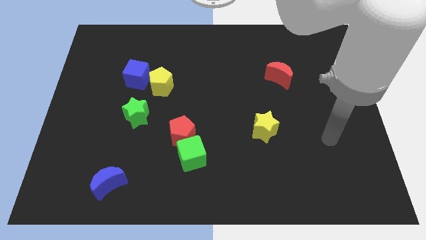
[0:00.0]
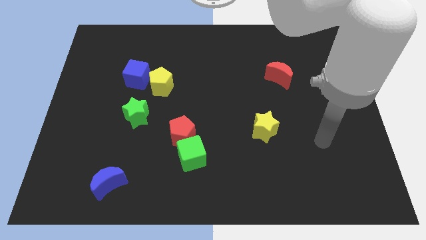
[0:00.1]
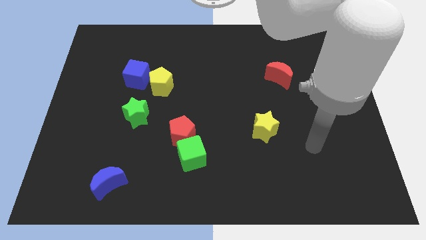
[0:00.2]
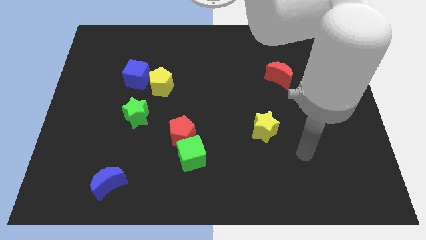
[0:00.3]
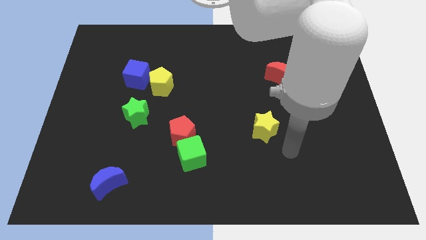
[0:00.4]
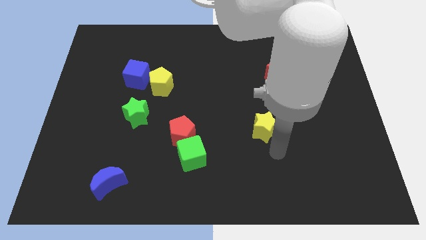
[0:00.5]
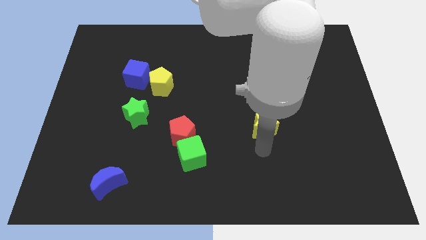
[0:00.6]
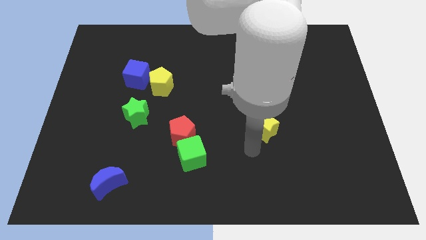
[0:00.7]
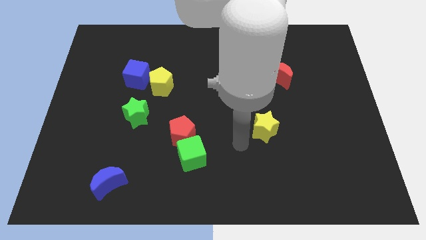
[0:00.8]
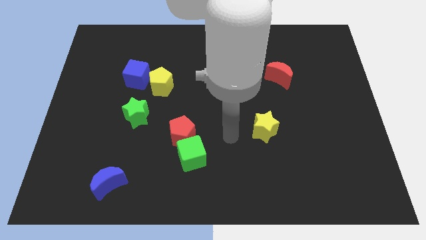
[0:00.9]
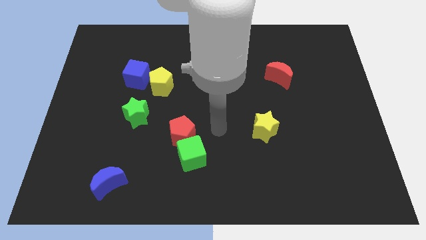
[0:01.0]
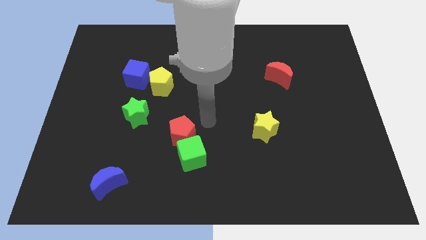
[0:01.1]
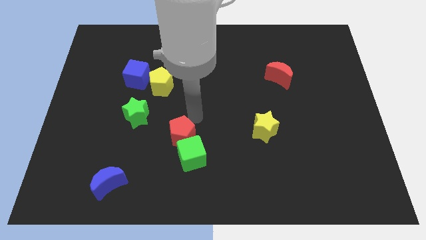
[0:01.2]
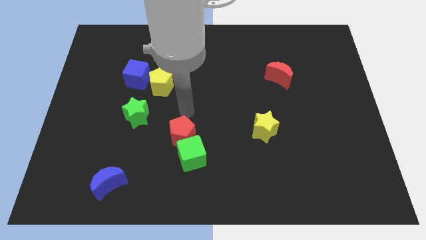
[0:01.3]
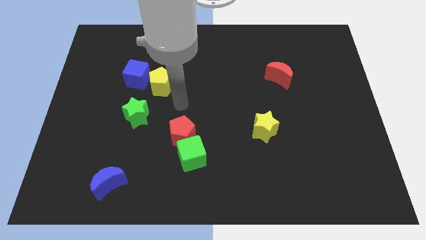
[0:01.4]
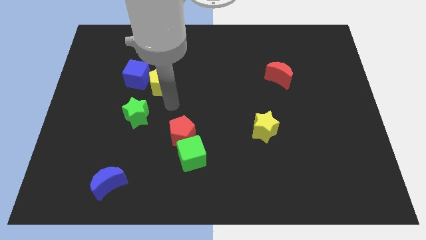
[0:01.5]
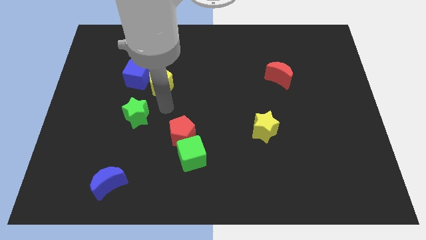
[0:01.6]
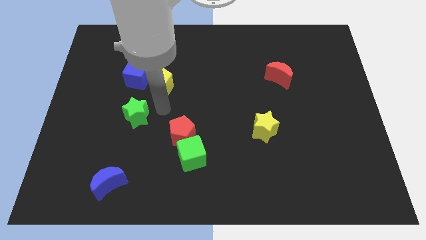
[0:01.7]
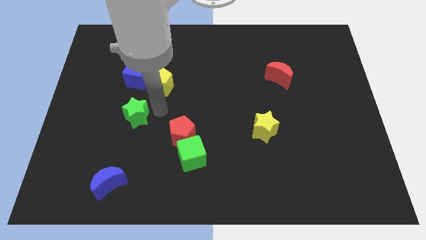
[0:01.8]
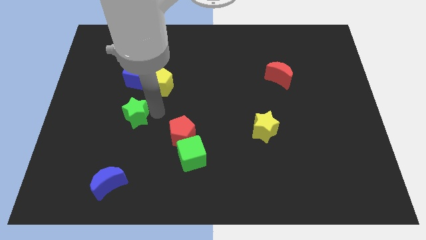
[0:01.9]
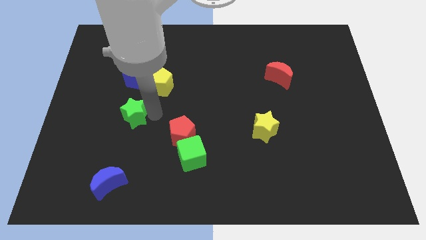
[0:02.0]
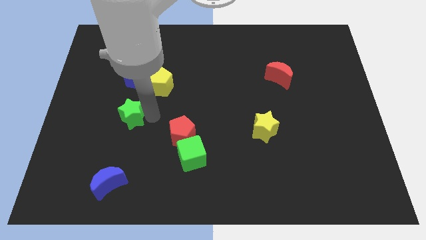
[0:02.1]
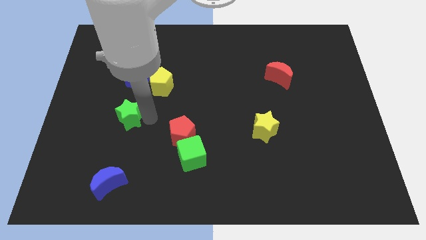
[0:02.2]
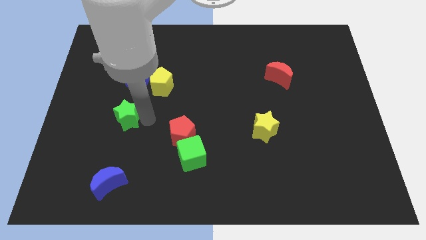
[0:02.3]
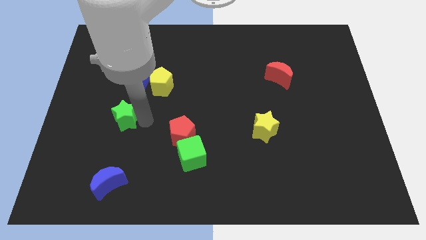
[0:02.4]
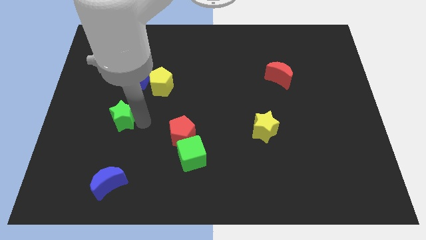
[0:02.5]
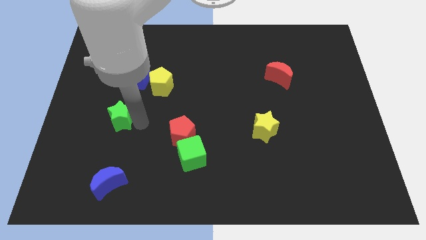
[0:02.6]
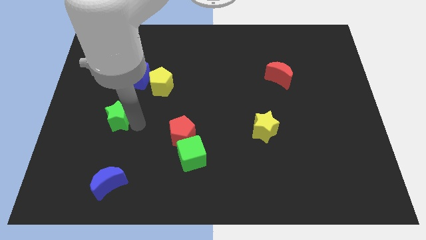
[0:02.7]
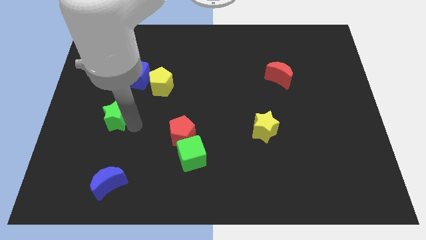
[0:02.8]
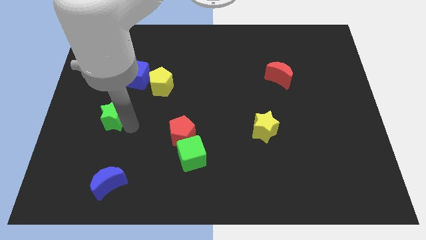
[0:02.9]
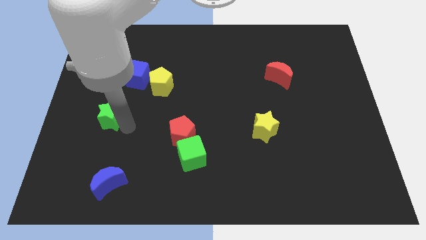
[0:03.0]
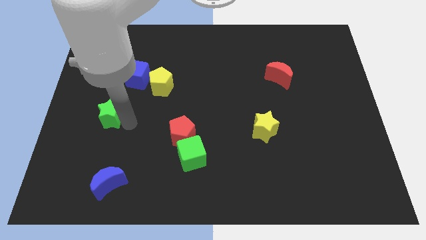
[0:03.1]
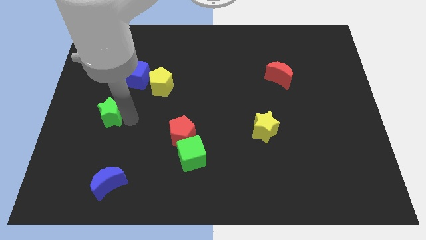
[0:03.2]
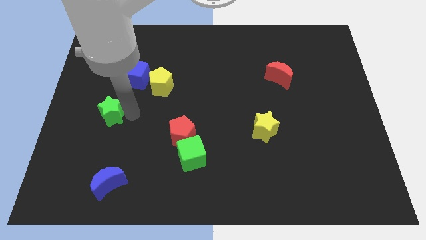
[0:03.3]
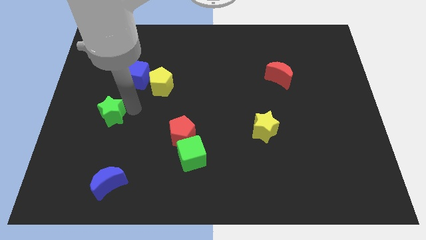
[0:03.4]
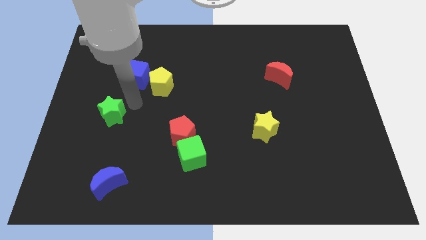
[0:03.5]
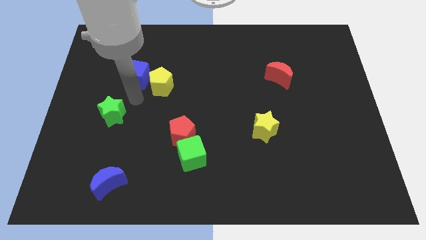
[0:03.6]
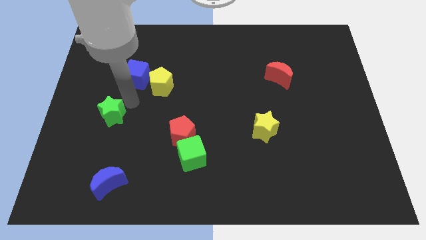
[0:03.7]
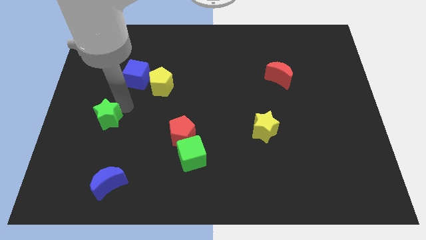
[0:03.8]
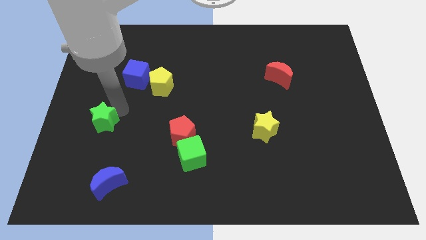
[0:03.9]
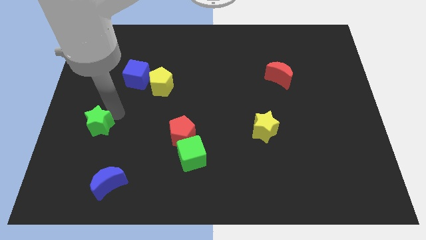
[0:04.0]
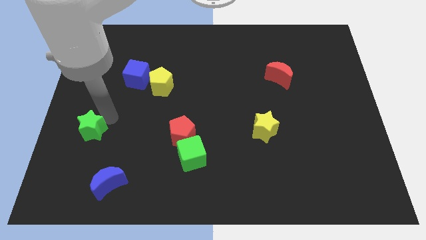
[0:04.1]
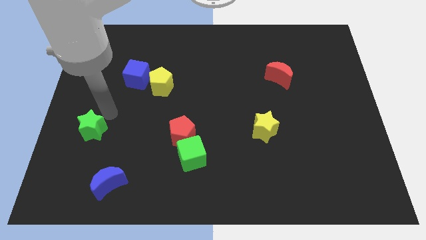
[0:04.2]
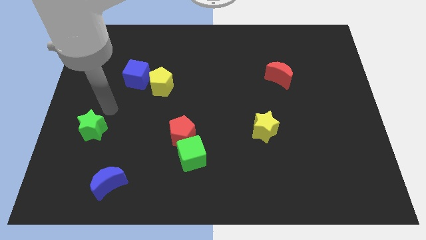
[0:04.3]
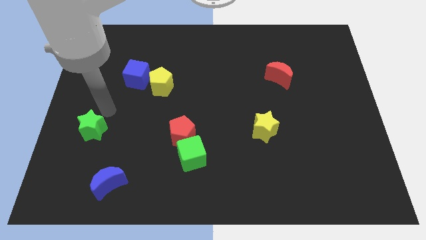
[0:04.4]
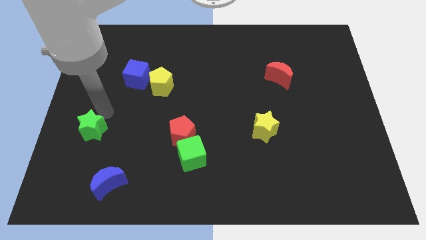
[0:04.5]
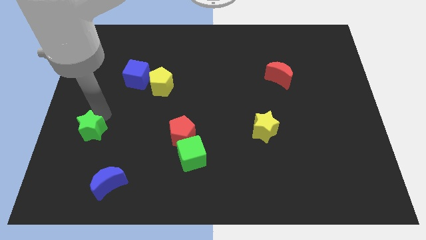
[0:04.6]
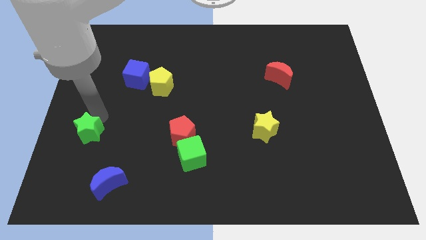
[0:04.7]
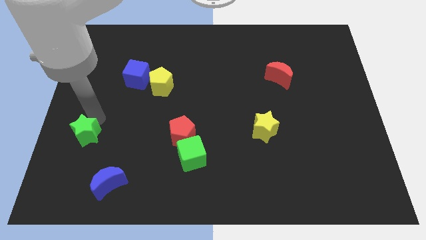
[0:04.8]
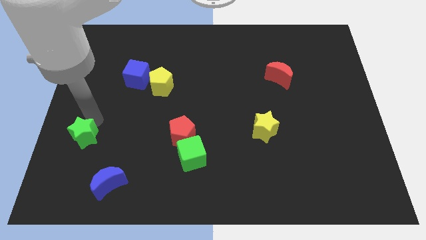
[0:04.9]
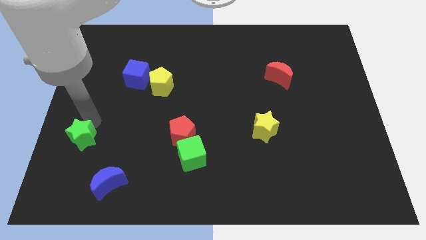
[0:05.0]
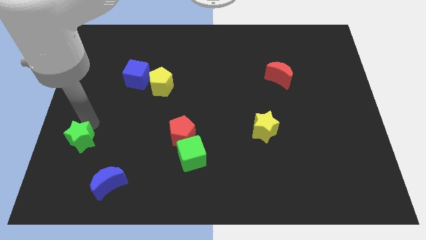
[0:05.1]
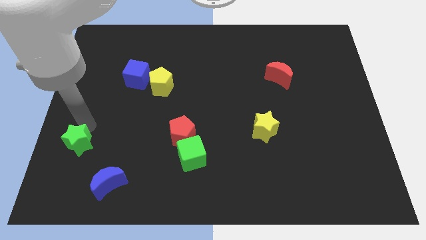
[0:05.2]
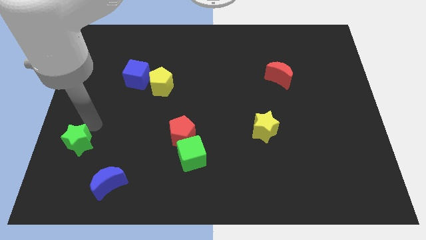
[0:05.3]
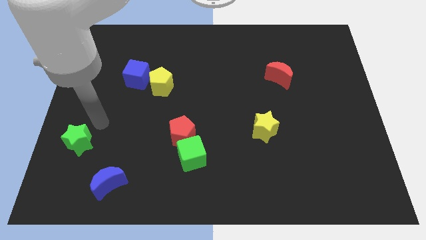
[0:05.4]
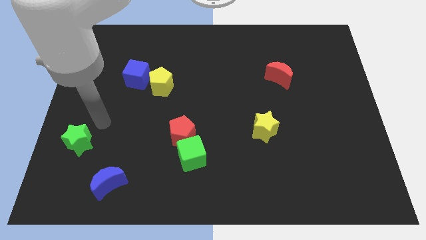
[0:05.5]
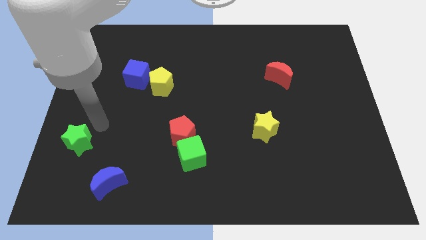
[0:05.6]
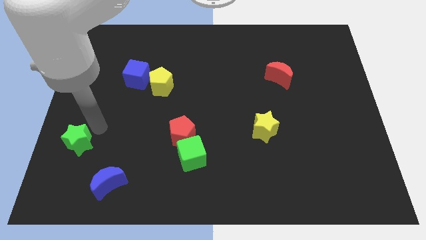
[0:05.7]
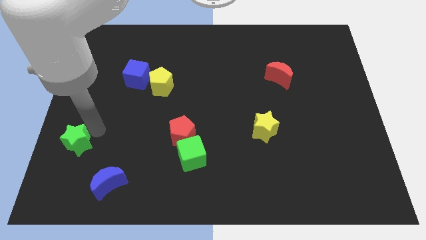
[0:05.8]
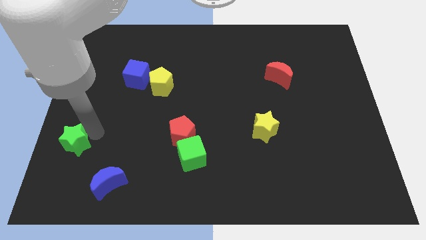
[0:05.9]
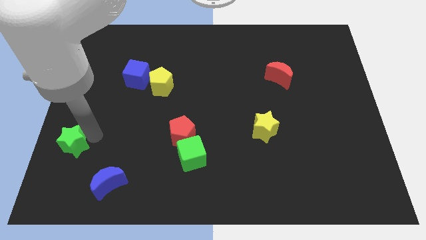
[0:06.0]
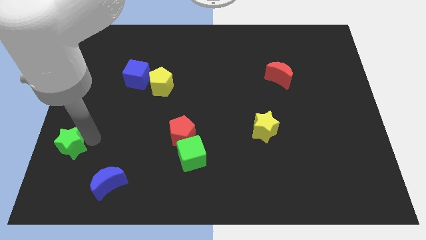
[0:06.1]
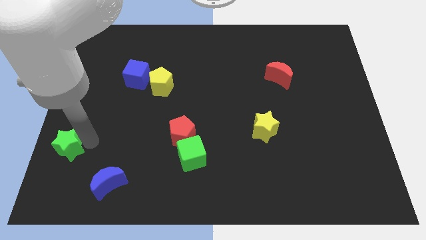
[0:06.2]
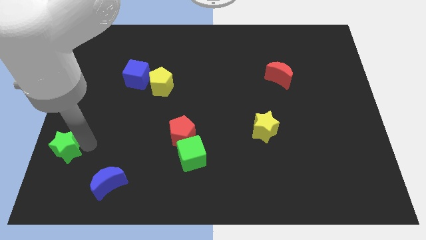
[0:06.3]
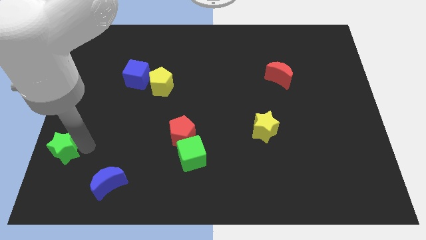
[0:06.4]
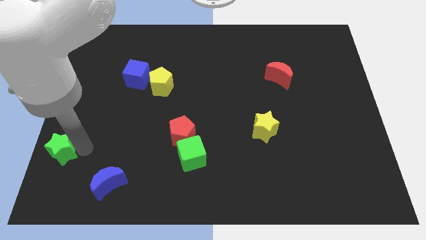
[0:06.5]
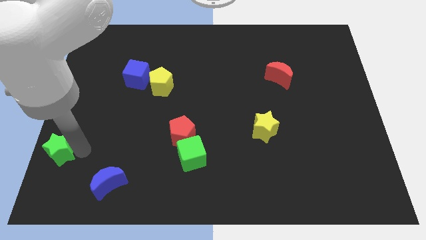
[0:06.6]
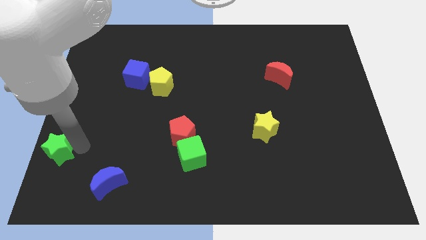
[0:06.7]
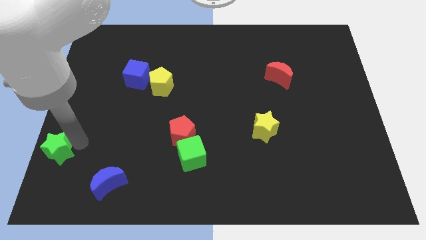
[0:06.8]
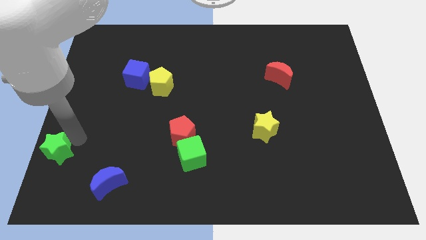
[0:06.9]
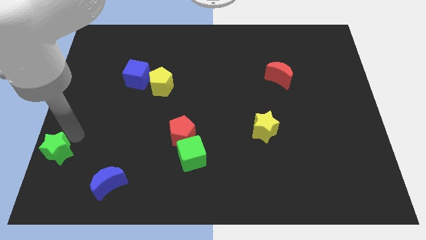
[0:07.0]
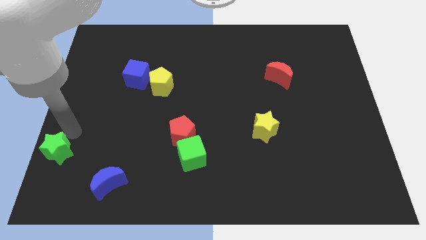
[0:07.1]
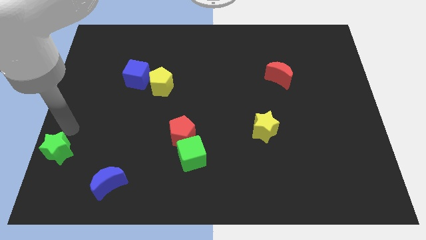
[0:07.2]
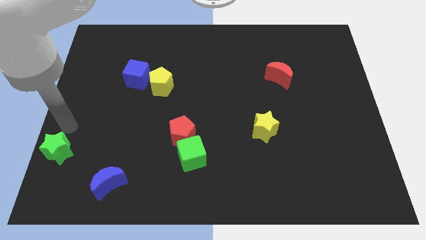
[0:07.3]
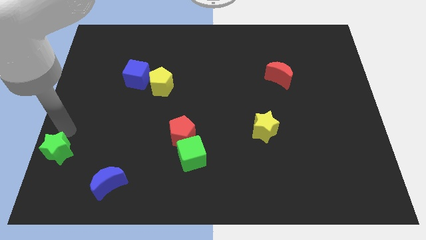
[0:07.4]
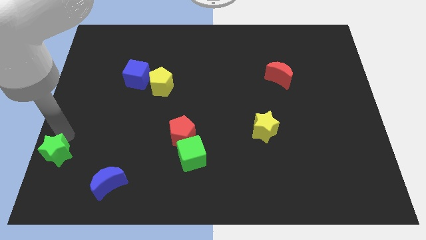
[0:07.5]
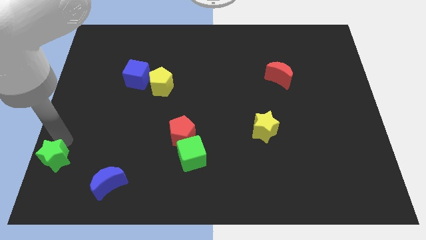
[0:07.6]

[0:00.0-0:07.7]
slide the green star to the bottom left of the board
